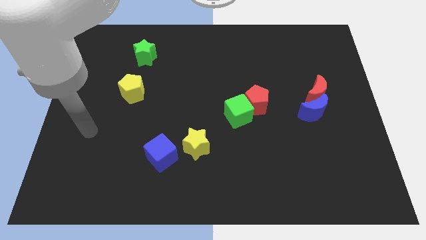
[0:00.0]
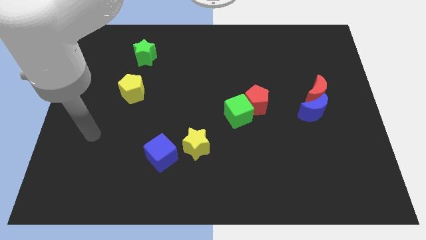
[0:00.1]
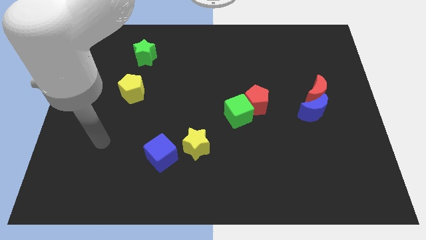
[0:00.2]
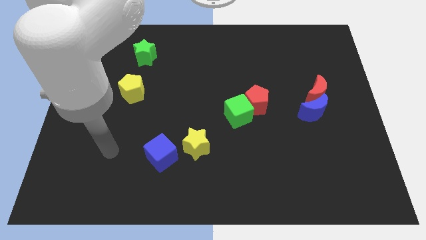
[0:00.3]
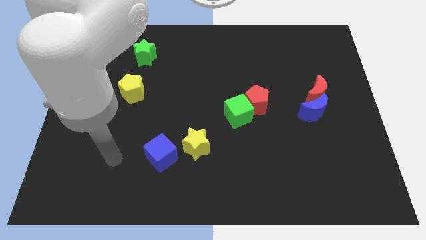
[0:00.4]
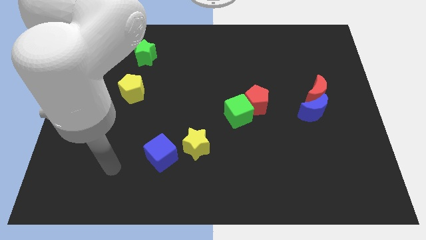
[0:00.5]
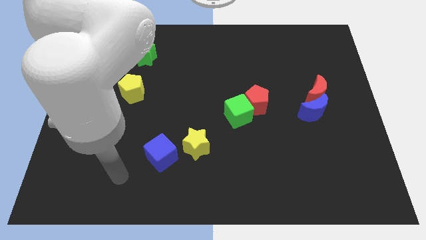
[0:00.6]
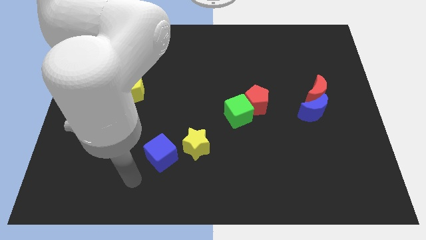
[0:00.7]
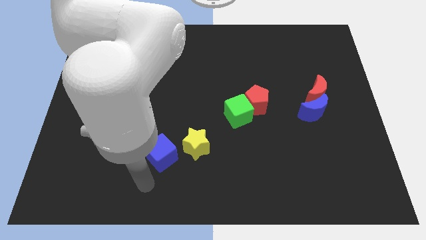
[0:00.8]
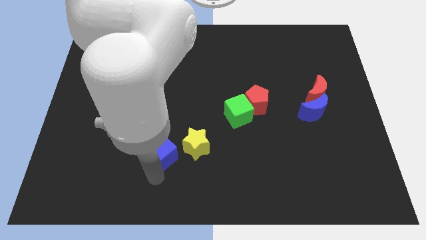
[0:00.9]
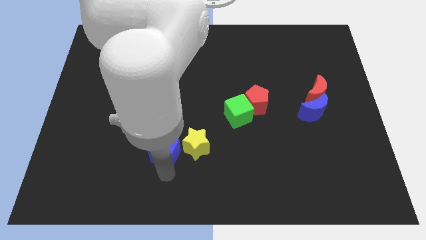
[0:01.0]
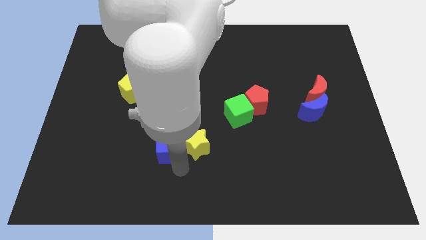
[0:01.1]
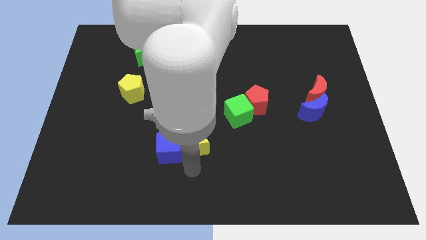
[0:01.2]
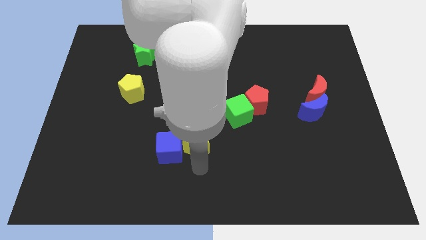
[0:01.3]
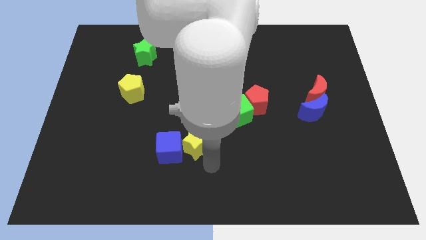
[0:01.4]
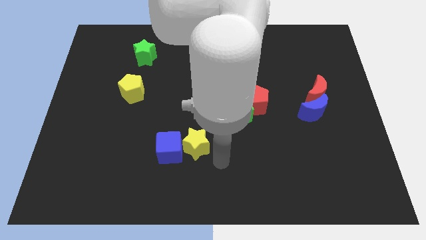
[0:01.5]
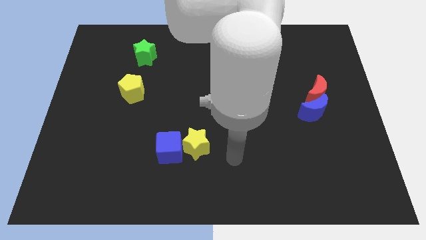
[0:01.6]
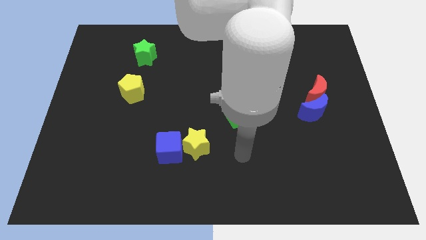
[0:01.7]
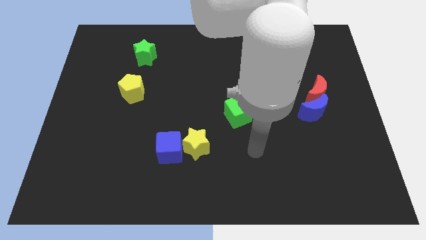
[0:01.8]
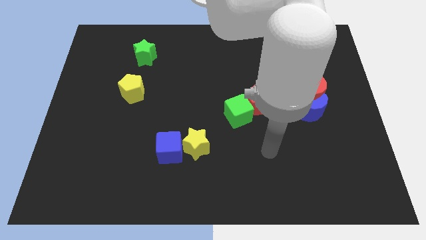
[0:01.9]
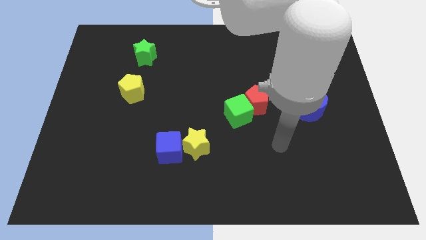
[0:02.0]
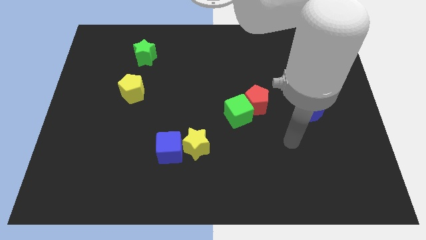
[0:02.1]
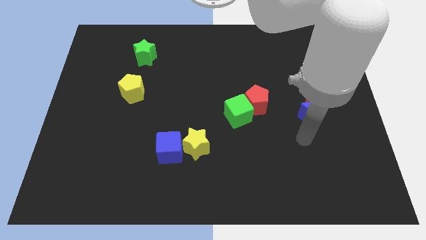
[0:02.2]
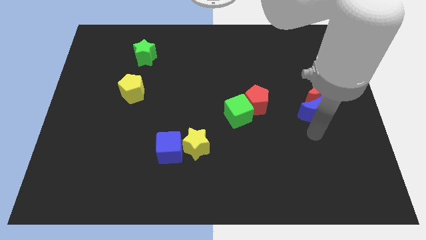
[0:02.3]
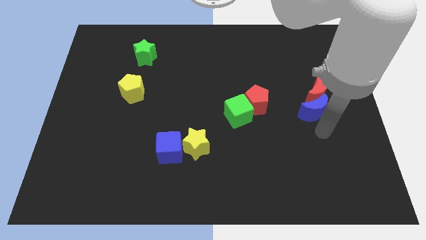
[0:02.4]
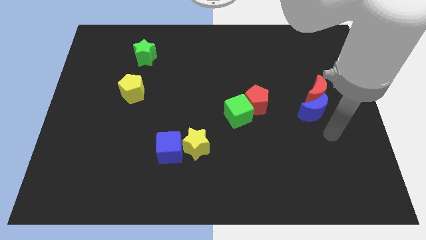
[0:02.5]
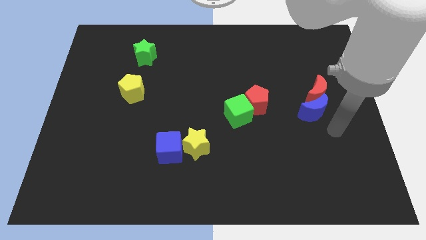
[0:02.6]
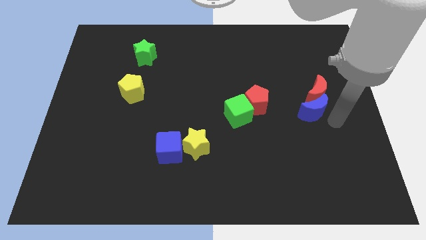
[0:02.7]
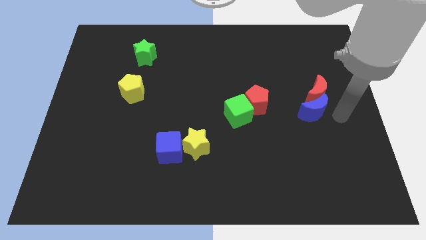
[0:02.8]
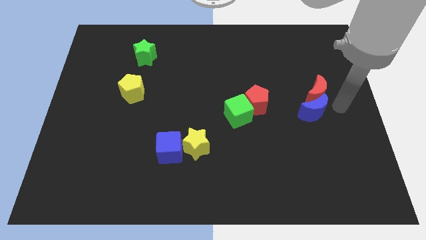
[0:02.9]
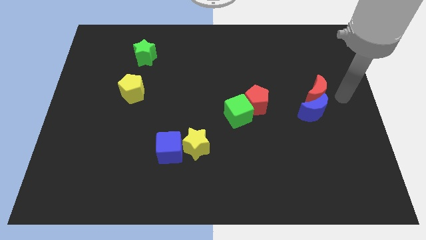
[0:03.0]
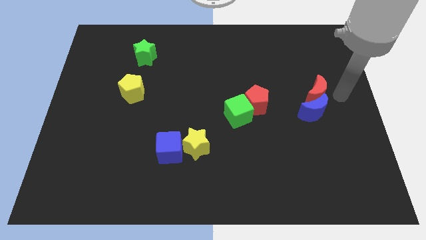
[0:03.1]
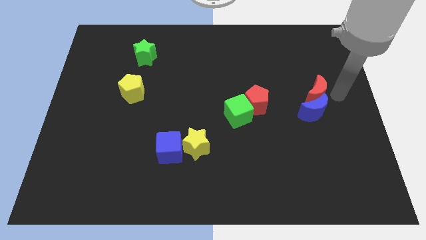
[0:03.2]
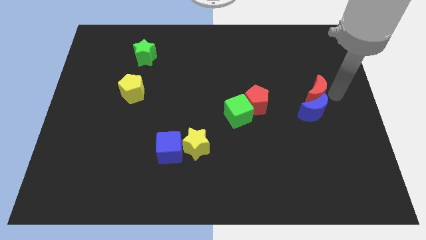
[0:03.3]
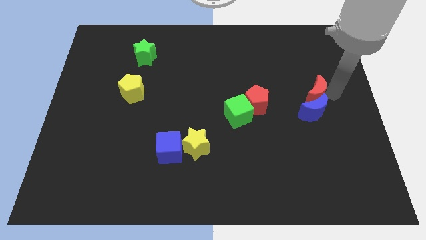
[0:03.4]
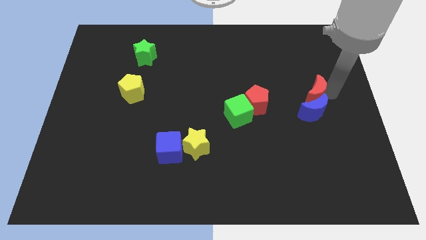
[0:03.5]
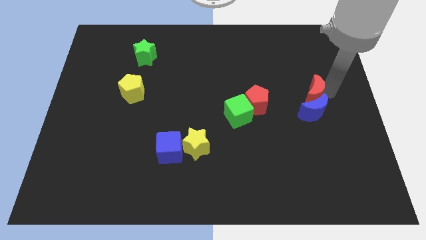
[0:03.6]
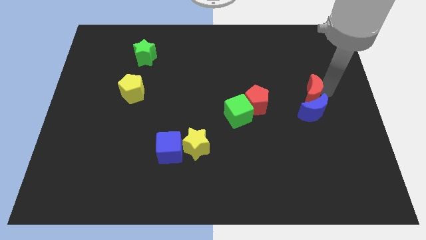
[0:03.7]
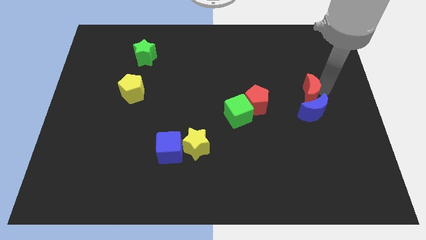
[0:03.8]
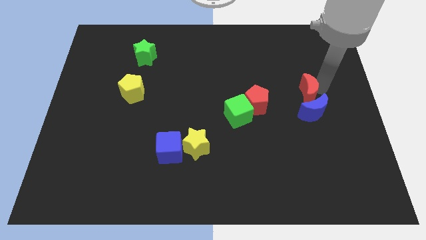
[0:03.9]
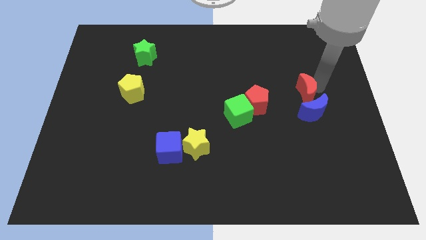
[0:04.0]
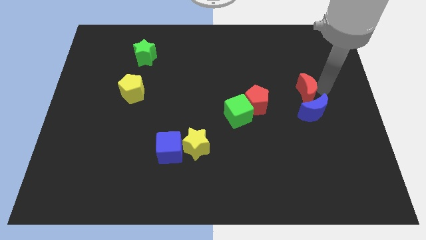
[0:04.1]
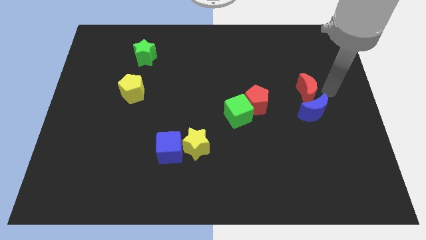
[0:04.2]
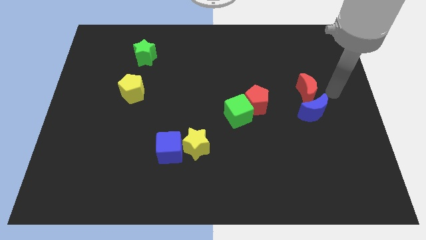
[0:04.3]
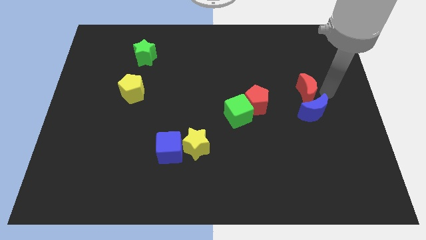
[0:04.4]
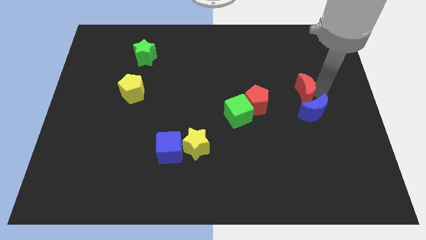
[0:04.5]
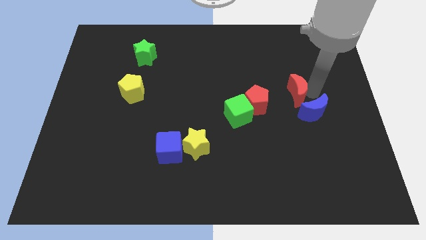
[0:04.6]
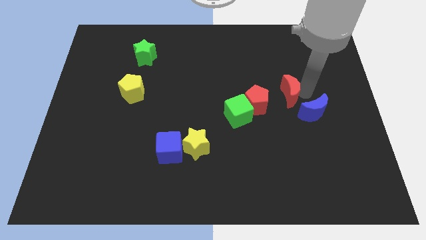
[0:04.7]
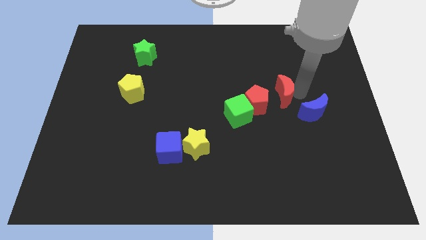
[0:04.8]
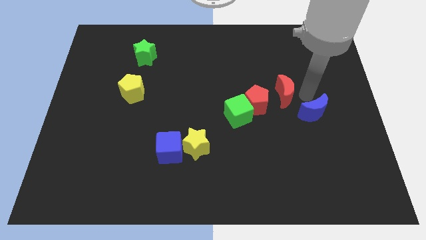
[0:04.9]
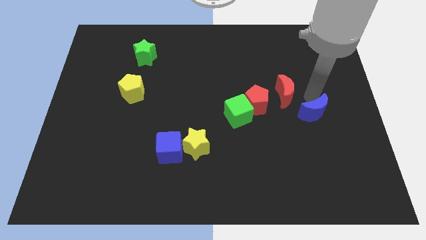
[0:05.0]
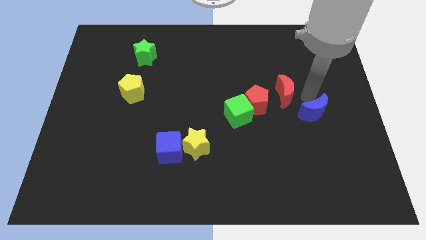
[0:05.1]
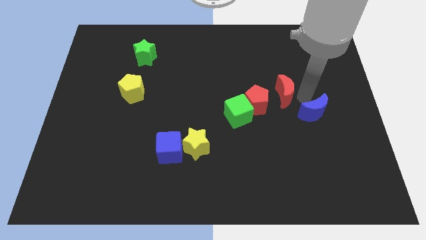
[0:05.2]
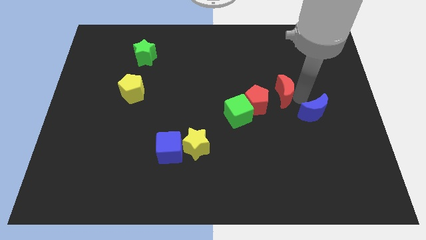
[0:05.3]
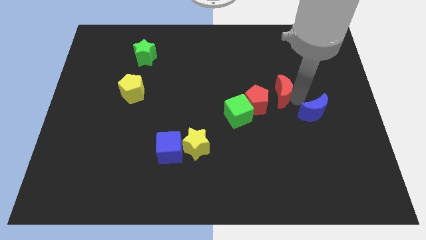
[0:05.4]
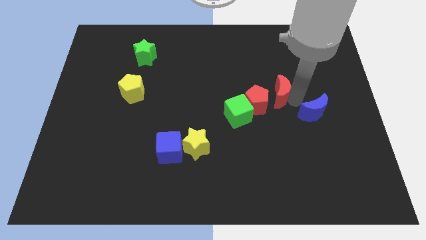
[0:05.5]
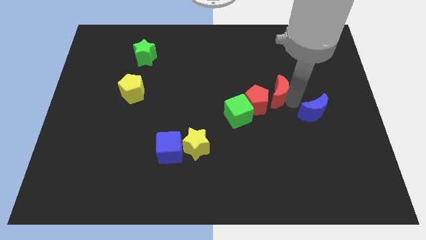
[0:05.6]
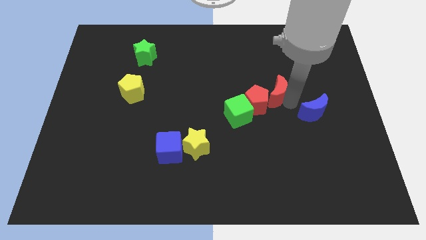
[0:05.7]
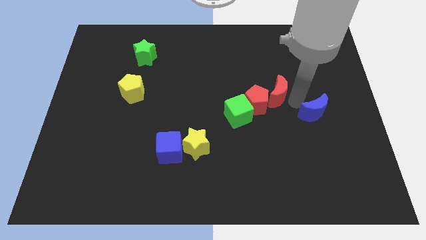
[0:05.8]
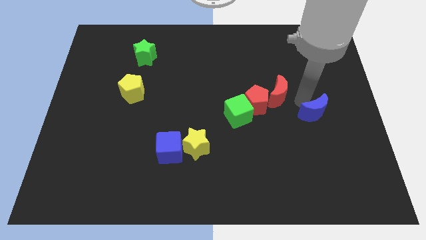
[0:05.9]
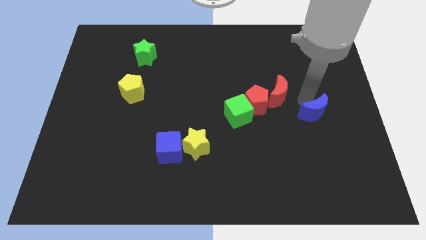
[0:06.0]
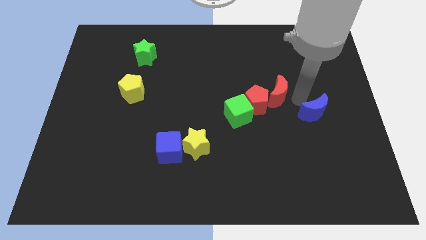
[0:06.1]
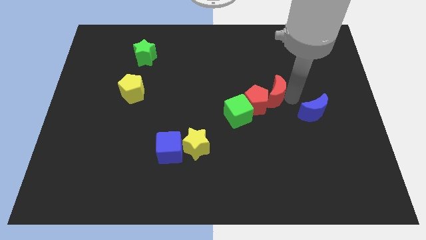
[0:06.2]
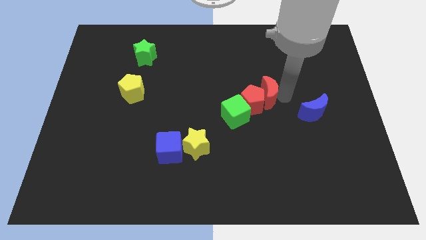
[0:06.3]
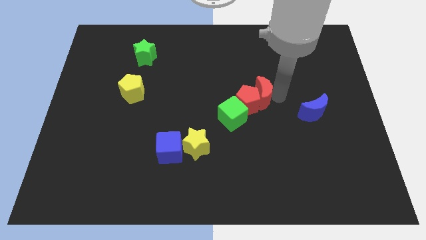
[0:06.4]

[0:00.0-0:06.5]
put the red moon to the middle

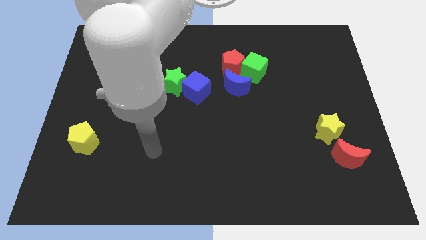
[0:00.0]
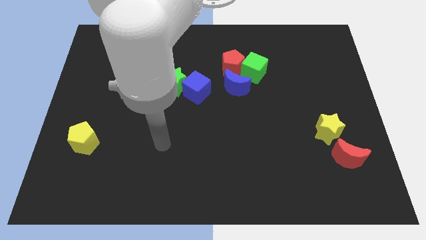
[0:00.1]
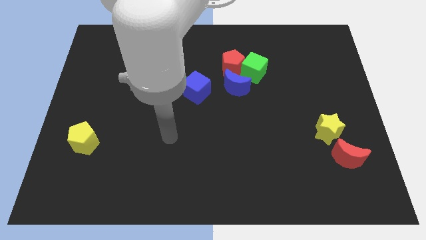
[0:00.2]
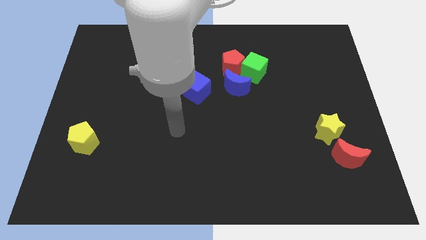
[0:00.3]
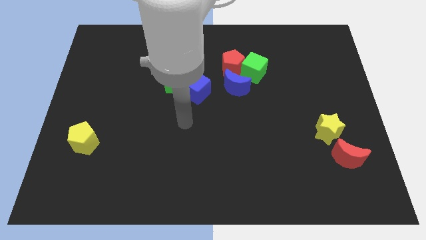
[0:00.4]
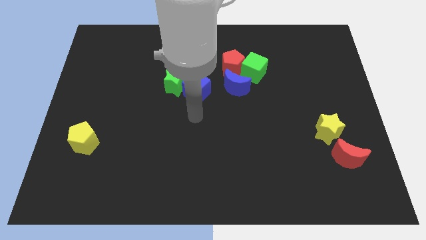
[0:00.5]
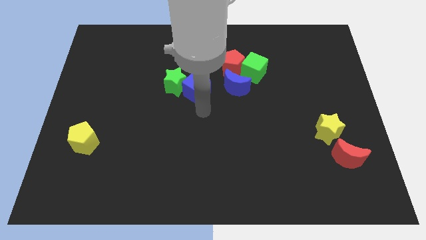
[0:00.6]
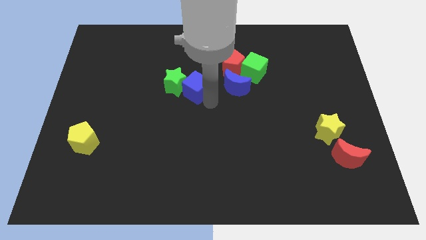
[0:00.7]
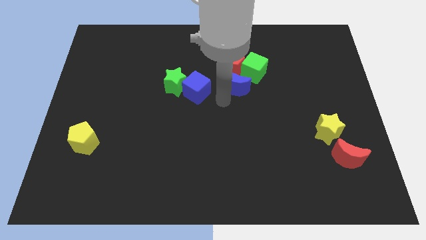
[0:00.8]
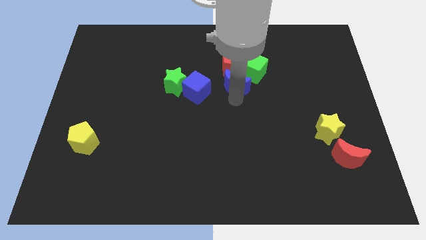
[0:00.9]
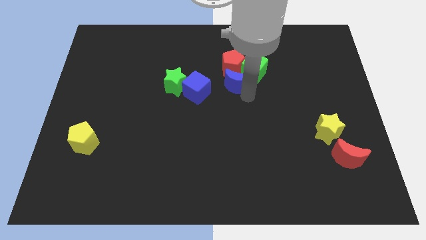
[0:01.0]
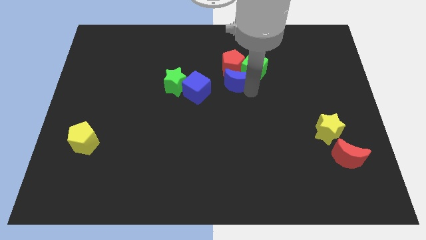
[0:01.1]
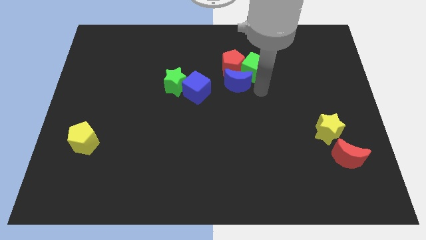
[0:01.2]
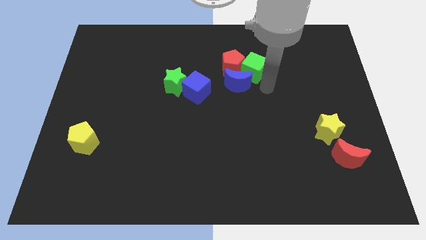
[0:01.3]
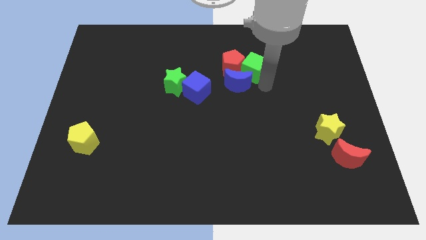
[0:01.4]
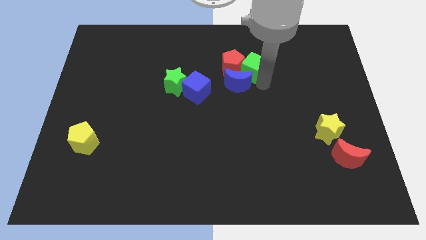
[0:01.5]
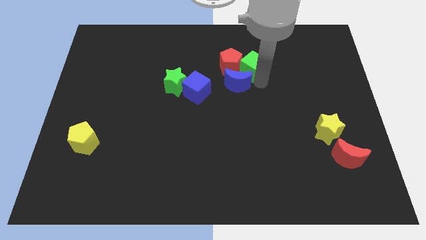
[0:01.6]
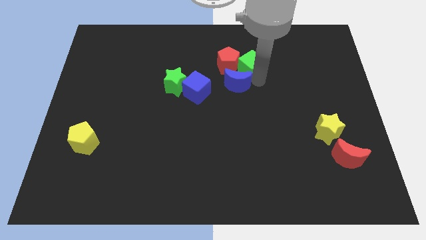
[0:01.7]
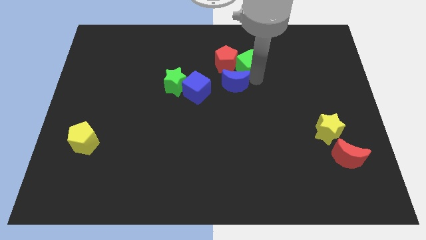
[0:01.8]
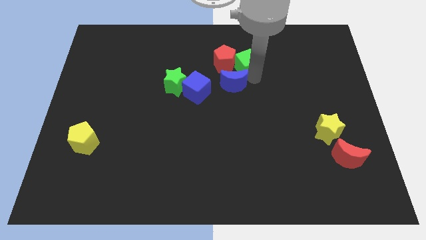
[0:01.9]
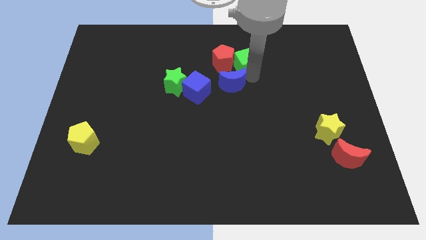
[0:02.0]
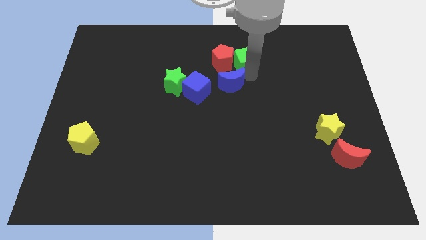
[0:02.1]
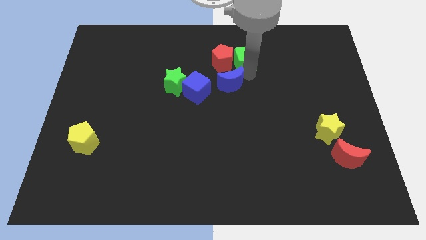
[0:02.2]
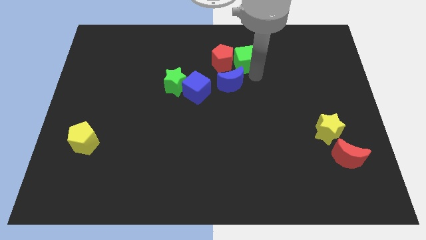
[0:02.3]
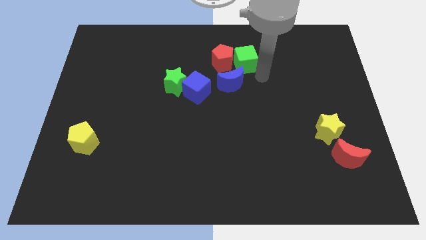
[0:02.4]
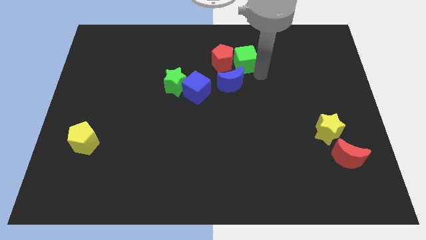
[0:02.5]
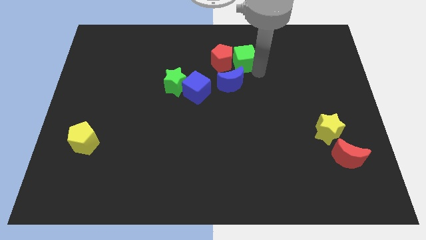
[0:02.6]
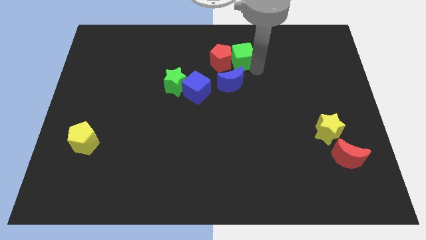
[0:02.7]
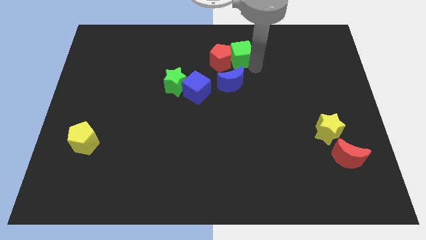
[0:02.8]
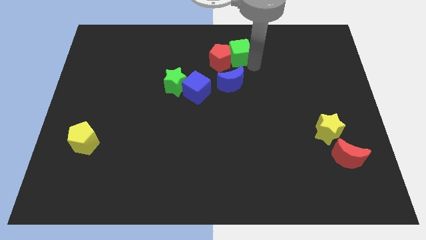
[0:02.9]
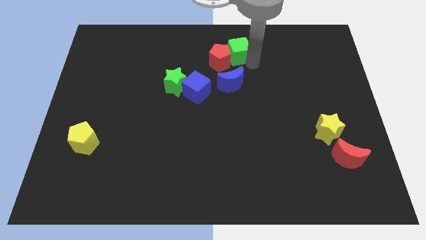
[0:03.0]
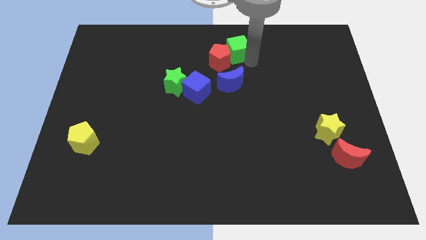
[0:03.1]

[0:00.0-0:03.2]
slide the green cube to the top side
